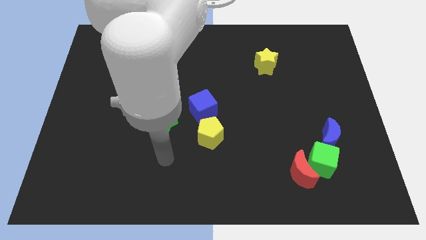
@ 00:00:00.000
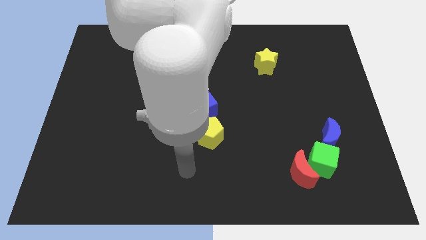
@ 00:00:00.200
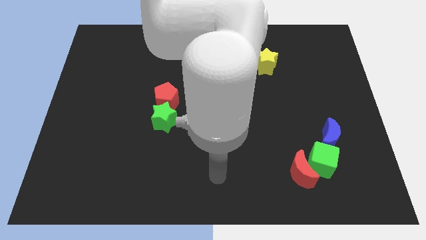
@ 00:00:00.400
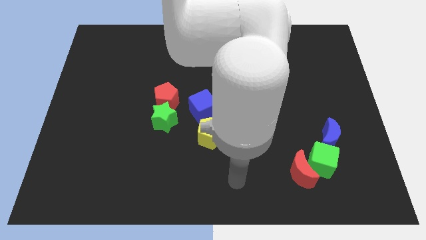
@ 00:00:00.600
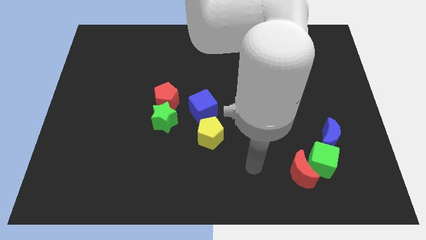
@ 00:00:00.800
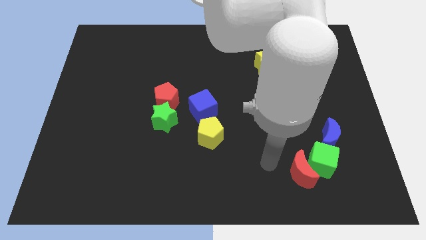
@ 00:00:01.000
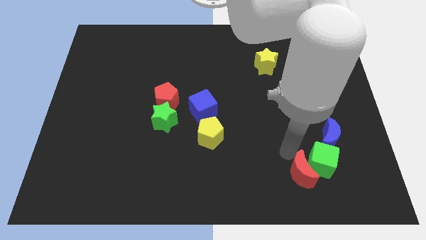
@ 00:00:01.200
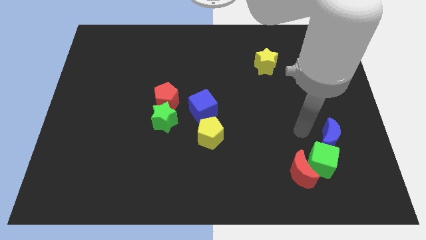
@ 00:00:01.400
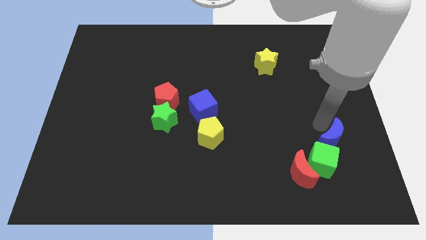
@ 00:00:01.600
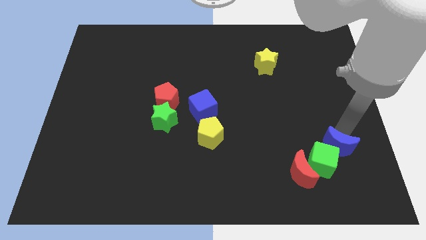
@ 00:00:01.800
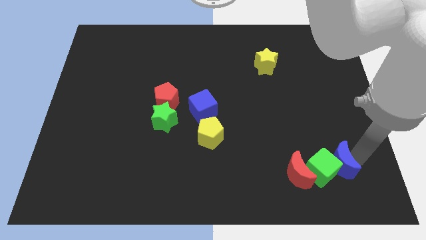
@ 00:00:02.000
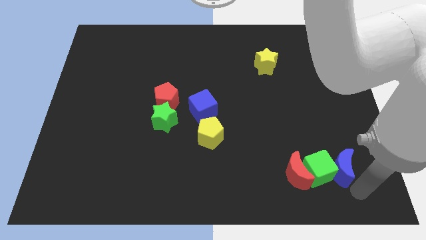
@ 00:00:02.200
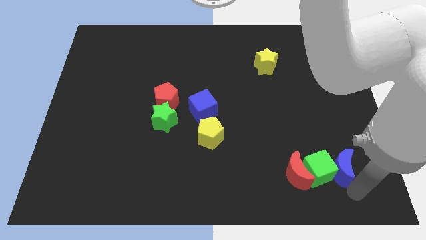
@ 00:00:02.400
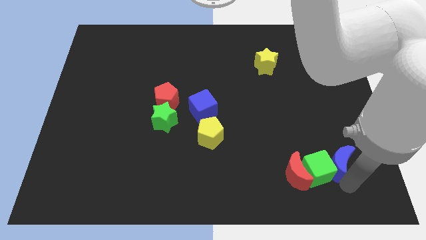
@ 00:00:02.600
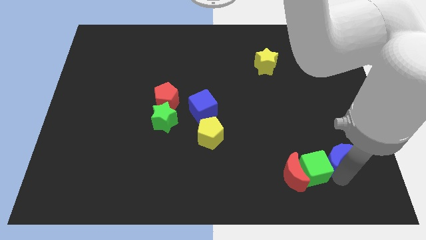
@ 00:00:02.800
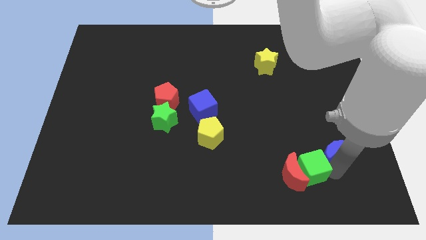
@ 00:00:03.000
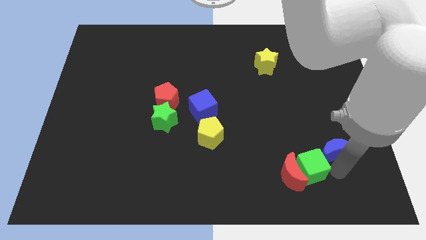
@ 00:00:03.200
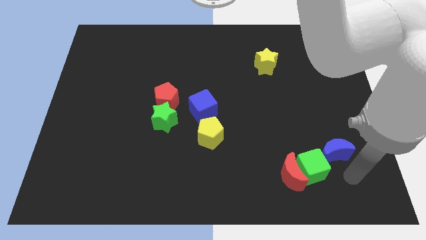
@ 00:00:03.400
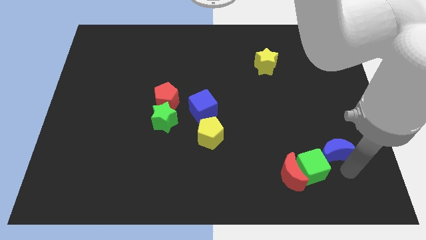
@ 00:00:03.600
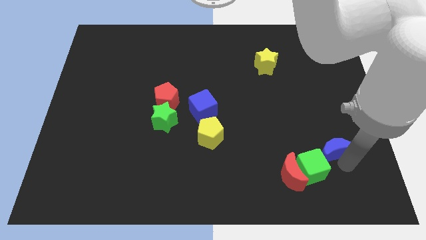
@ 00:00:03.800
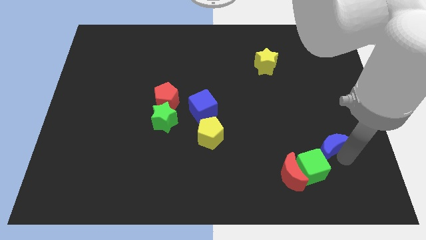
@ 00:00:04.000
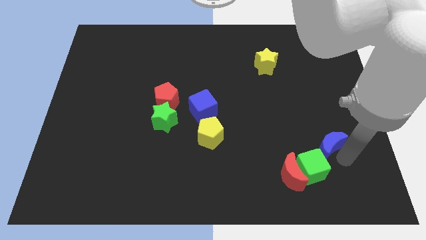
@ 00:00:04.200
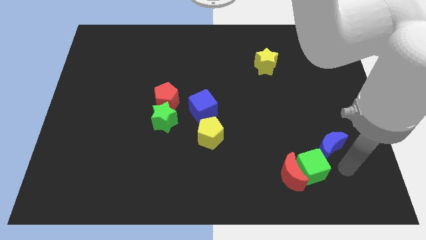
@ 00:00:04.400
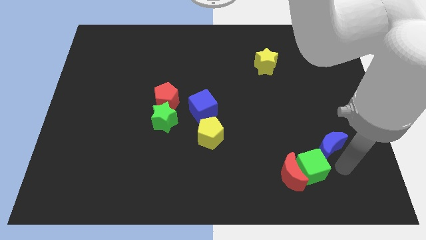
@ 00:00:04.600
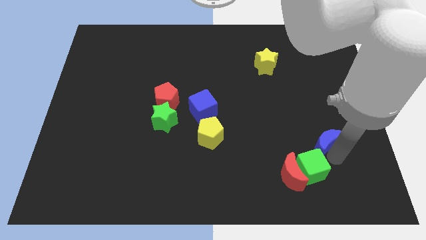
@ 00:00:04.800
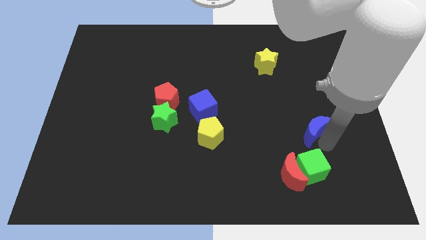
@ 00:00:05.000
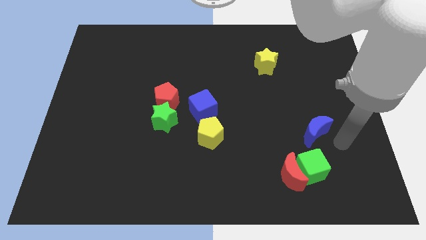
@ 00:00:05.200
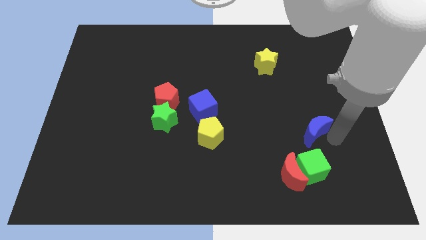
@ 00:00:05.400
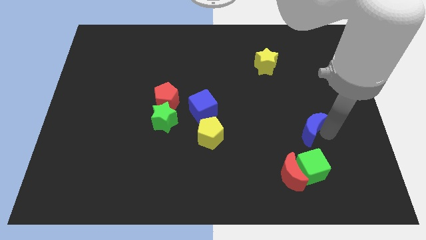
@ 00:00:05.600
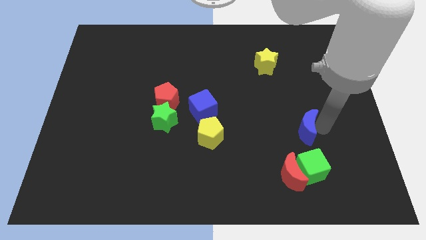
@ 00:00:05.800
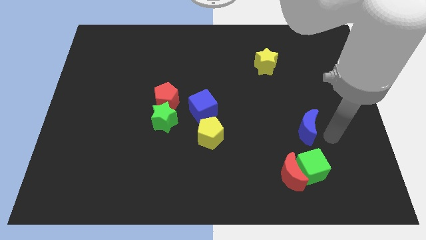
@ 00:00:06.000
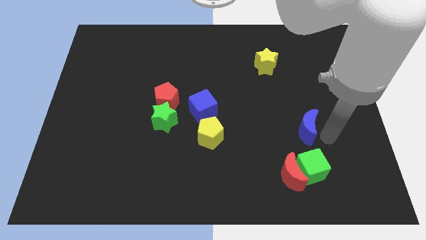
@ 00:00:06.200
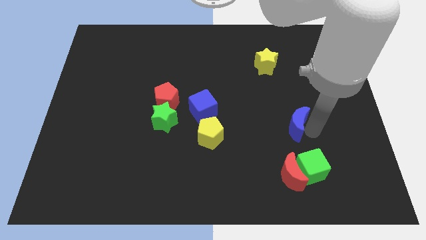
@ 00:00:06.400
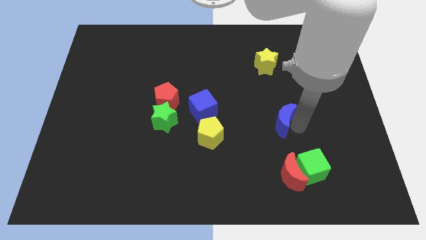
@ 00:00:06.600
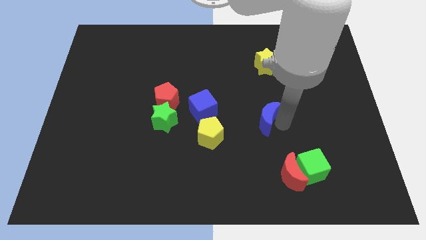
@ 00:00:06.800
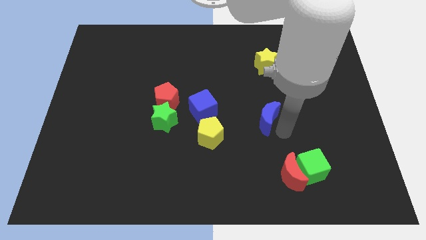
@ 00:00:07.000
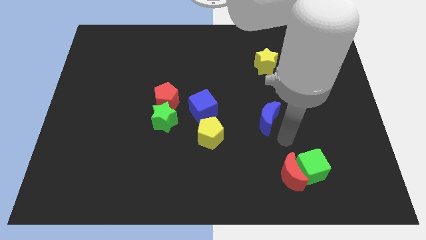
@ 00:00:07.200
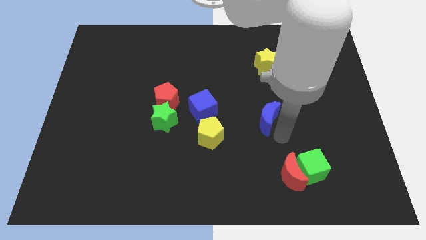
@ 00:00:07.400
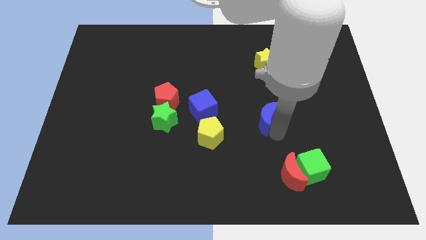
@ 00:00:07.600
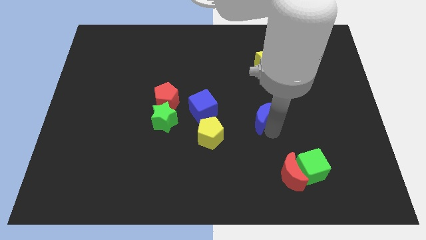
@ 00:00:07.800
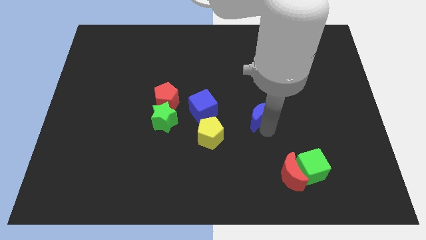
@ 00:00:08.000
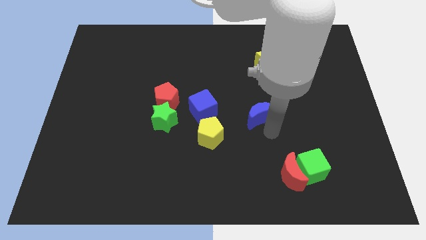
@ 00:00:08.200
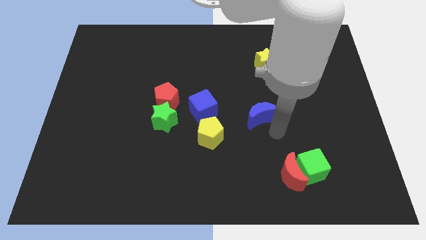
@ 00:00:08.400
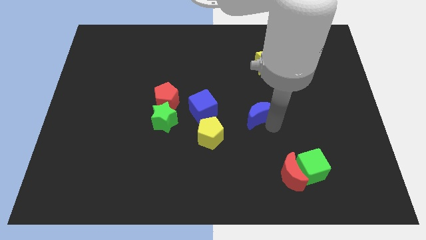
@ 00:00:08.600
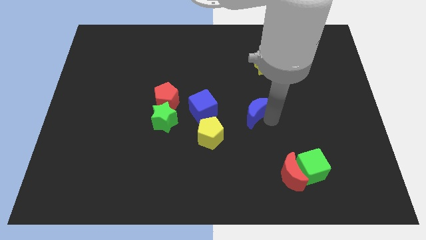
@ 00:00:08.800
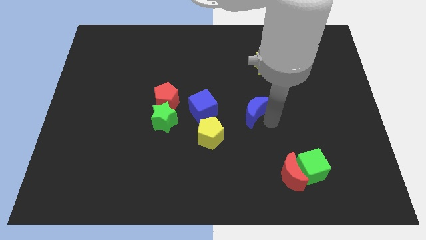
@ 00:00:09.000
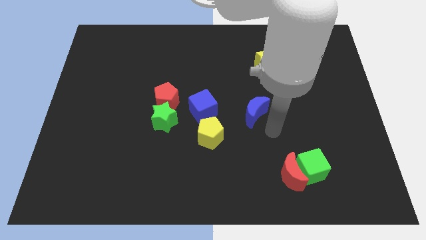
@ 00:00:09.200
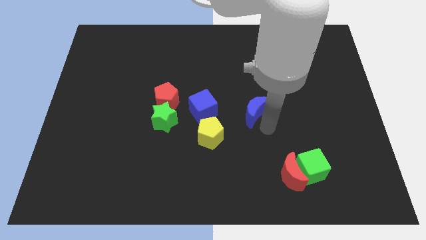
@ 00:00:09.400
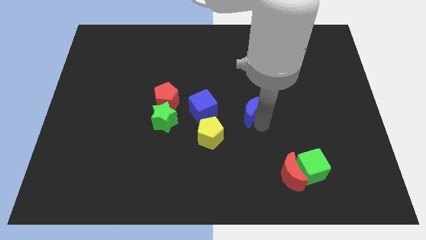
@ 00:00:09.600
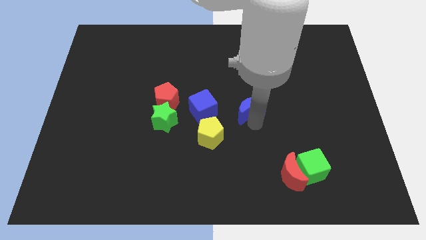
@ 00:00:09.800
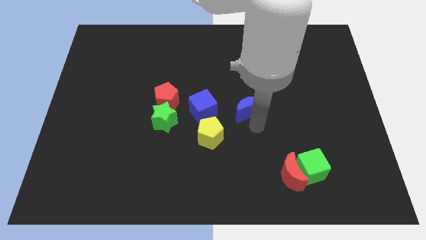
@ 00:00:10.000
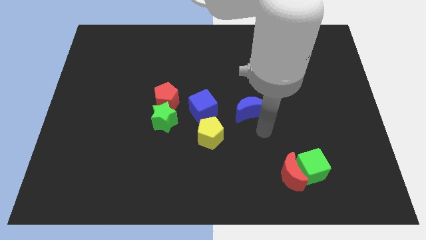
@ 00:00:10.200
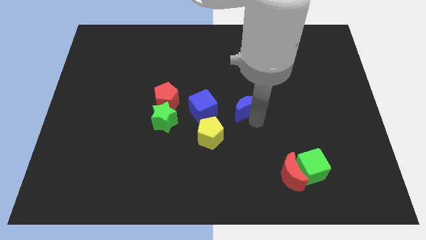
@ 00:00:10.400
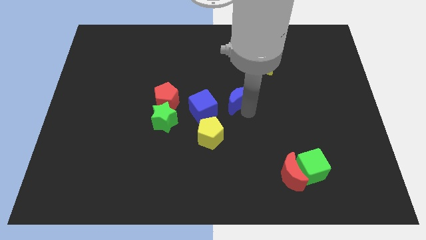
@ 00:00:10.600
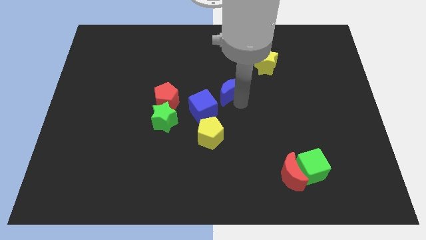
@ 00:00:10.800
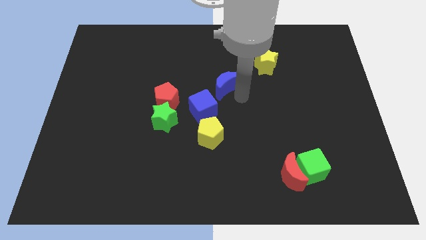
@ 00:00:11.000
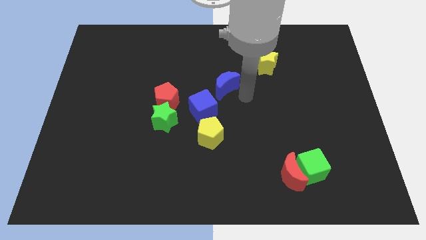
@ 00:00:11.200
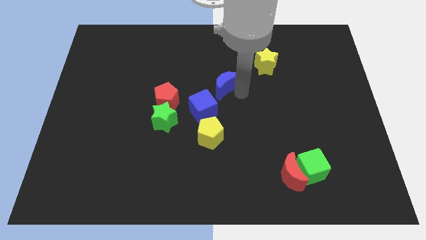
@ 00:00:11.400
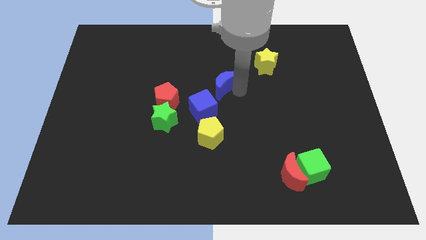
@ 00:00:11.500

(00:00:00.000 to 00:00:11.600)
move the blue moon to the top of the blue cube

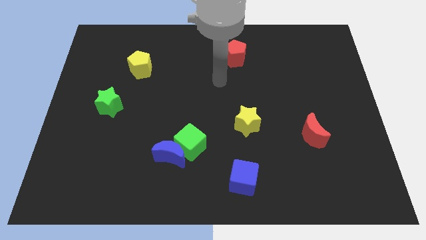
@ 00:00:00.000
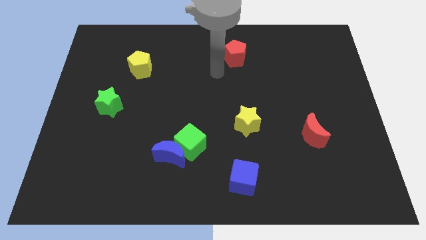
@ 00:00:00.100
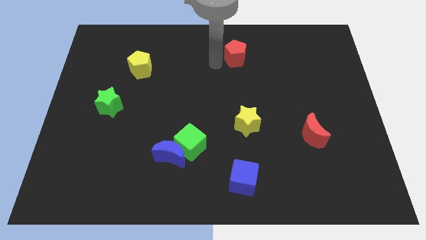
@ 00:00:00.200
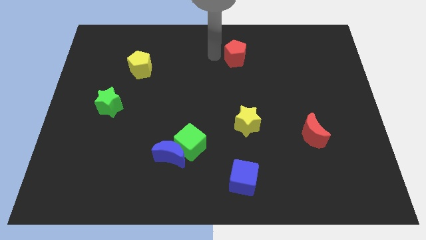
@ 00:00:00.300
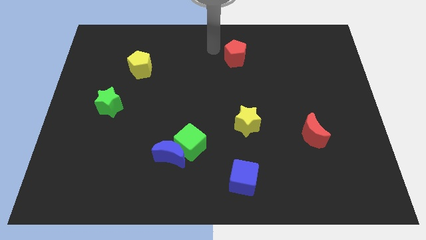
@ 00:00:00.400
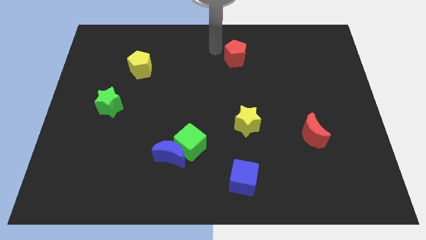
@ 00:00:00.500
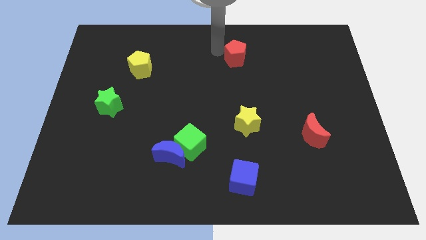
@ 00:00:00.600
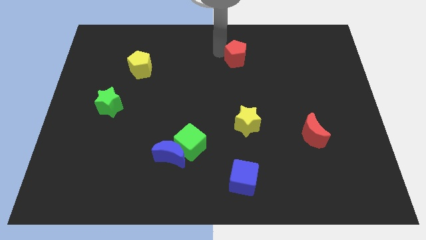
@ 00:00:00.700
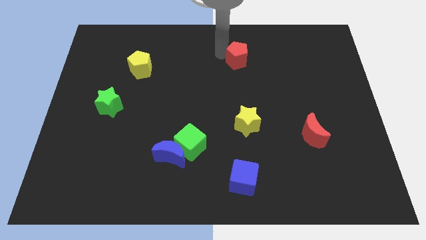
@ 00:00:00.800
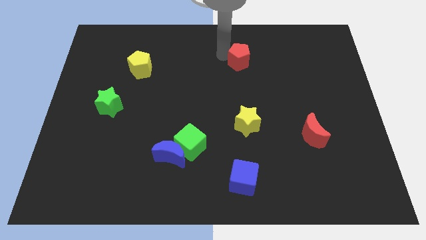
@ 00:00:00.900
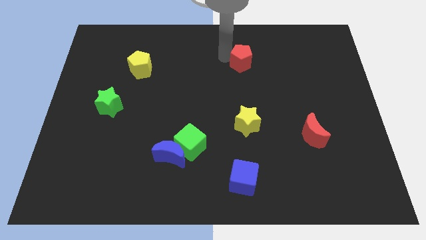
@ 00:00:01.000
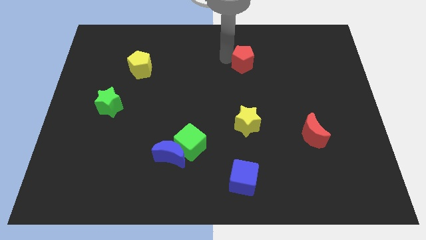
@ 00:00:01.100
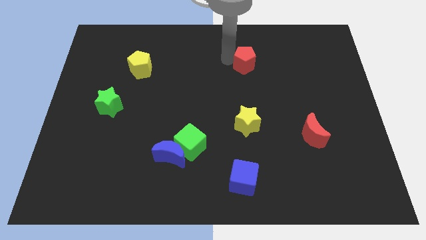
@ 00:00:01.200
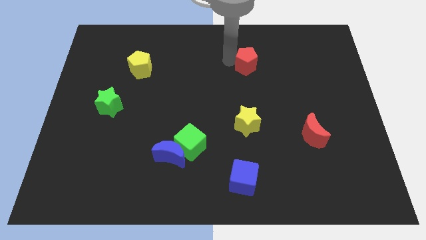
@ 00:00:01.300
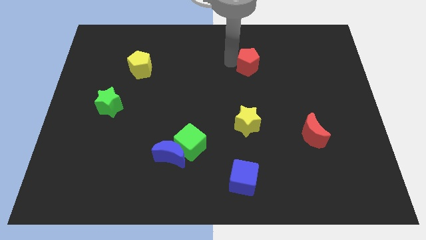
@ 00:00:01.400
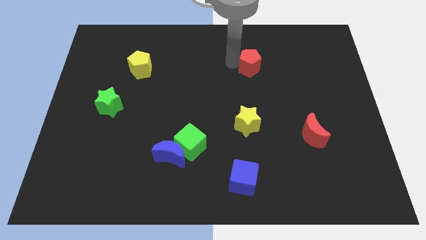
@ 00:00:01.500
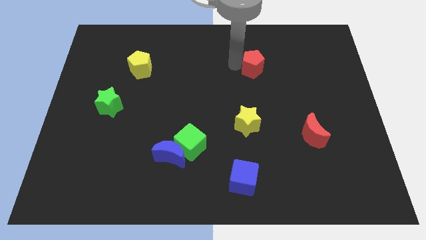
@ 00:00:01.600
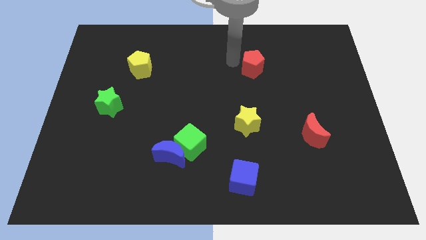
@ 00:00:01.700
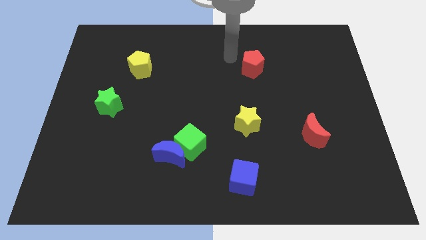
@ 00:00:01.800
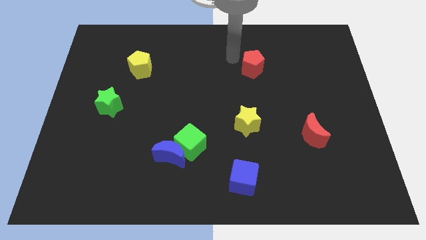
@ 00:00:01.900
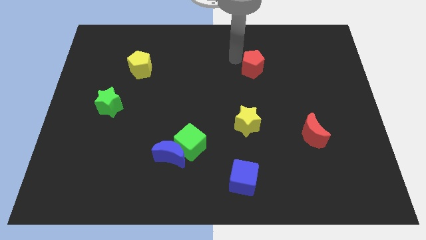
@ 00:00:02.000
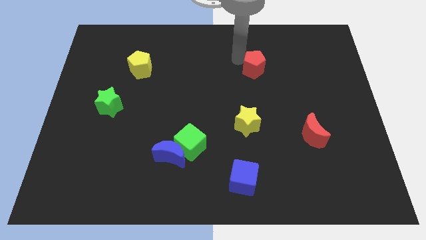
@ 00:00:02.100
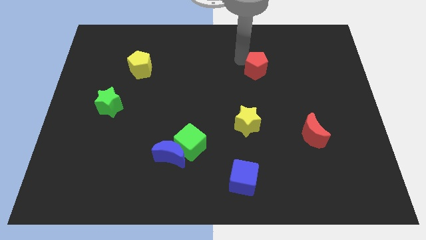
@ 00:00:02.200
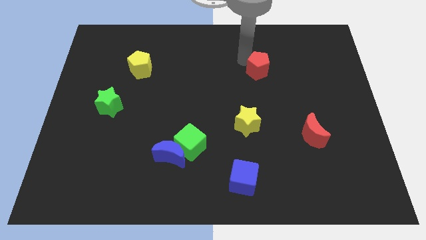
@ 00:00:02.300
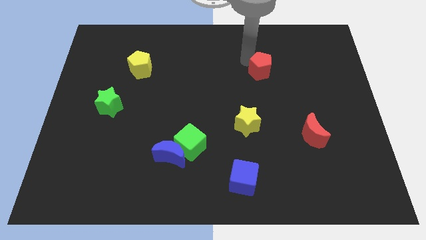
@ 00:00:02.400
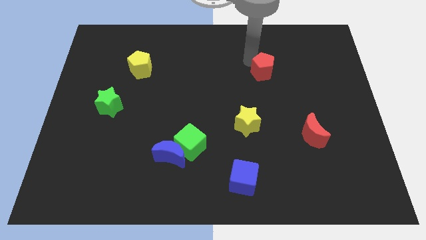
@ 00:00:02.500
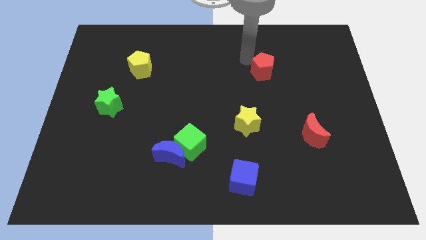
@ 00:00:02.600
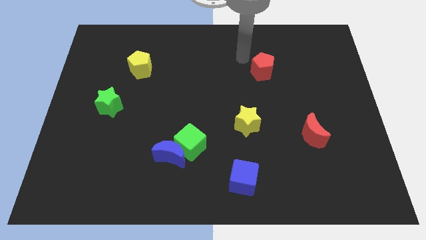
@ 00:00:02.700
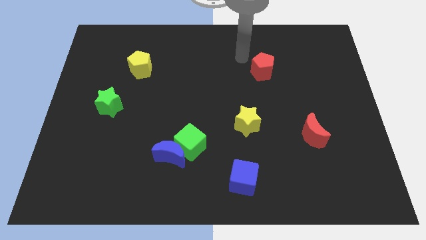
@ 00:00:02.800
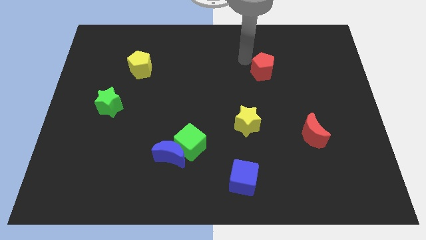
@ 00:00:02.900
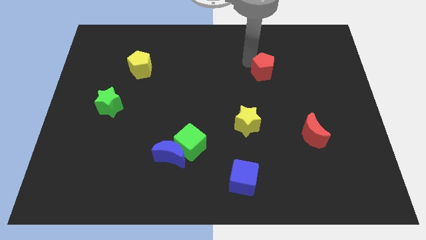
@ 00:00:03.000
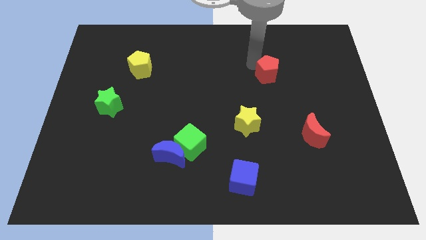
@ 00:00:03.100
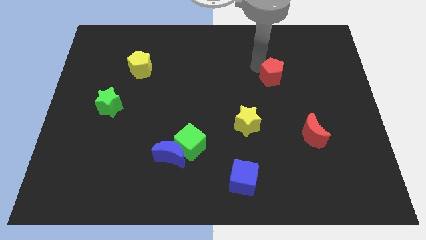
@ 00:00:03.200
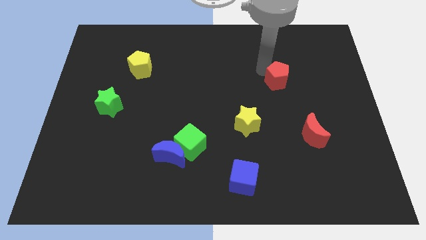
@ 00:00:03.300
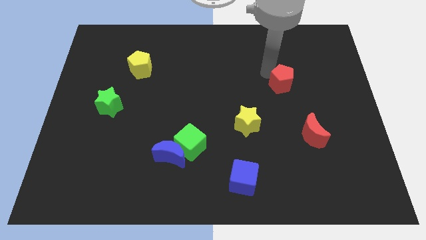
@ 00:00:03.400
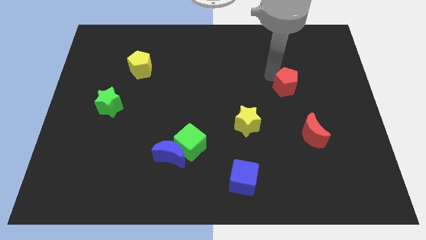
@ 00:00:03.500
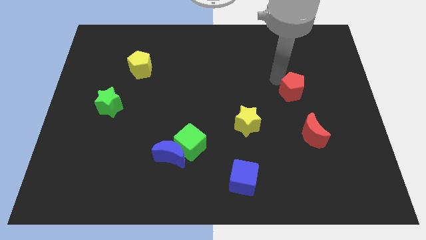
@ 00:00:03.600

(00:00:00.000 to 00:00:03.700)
slide the red pentagon above the red moon
